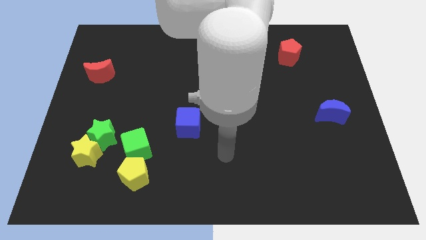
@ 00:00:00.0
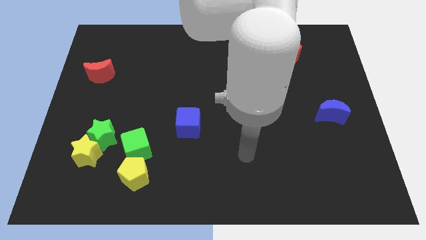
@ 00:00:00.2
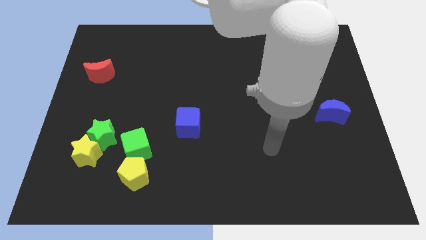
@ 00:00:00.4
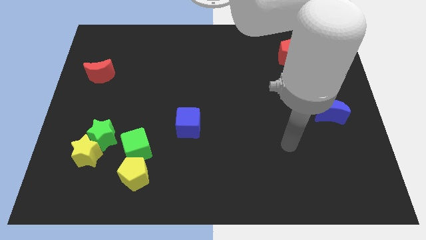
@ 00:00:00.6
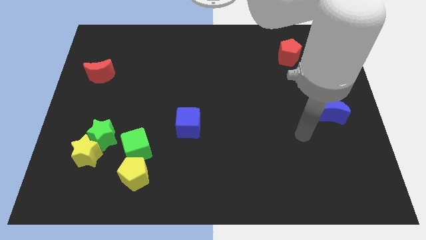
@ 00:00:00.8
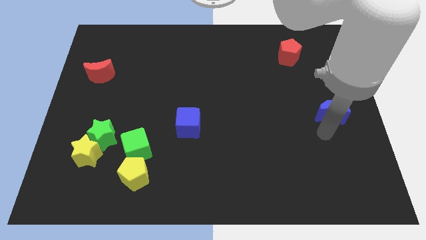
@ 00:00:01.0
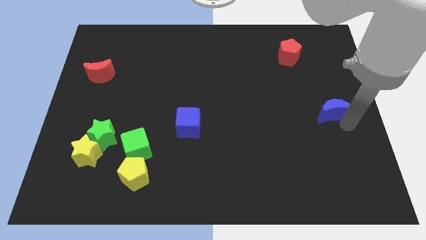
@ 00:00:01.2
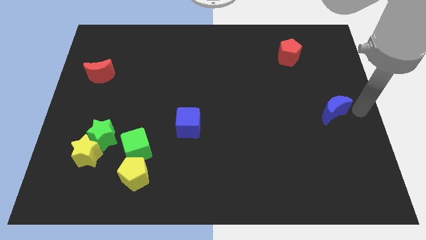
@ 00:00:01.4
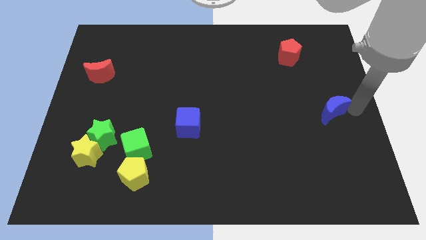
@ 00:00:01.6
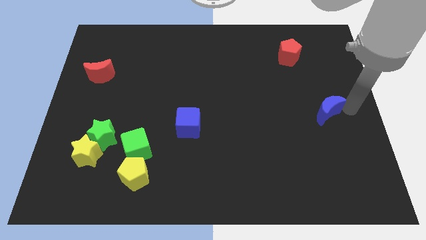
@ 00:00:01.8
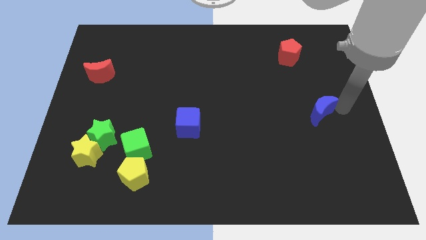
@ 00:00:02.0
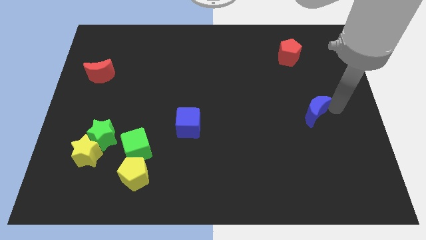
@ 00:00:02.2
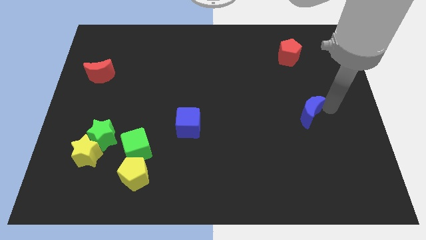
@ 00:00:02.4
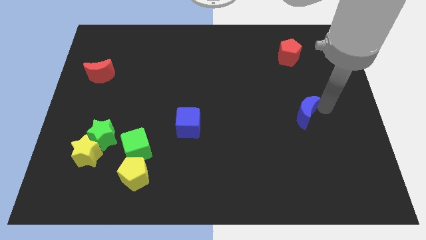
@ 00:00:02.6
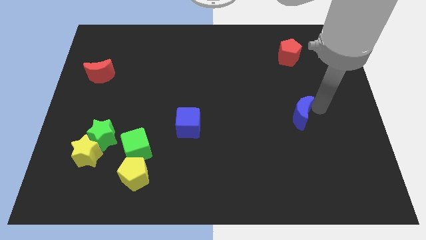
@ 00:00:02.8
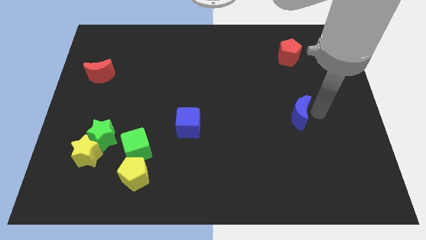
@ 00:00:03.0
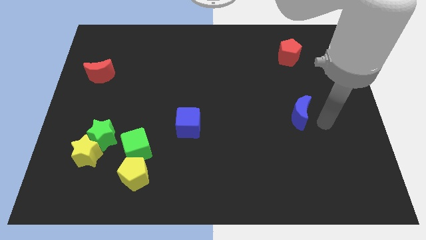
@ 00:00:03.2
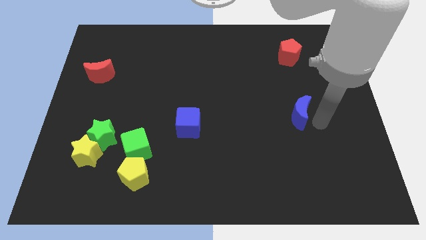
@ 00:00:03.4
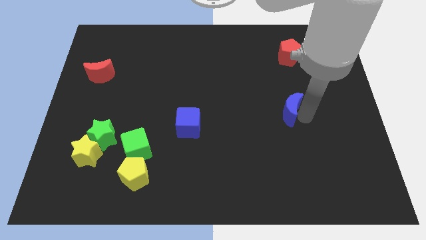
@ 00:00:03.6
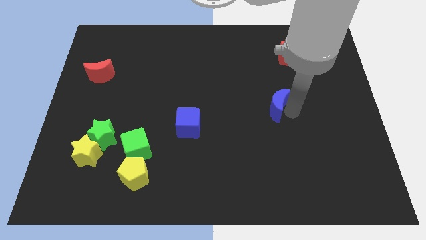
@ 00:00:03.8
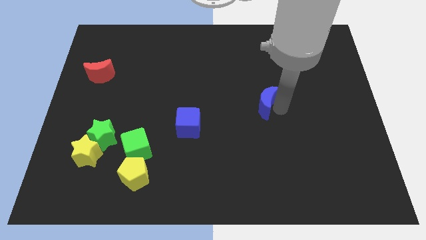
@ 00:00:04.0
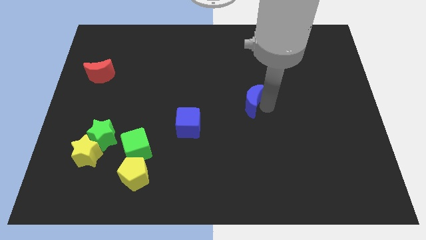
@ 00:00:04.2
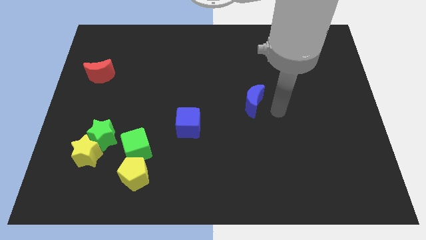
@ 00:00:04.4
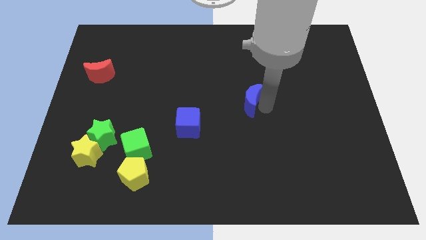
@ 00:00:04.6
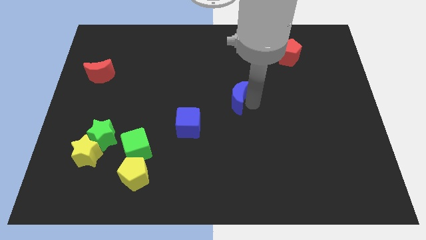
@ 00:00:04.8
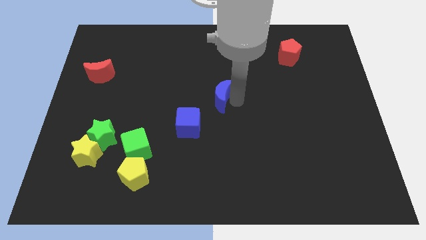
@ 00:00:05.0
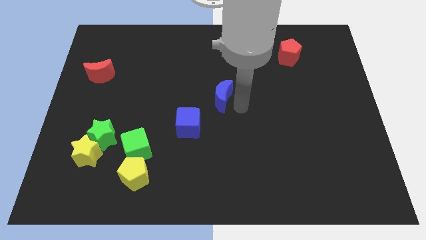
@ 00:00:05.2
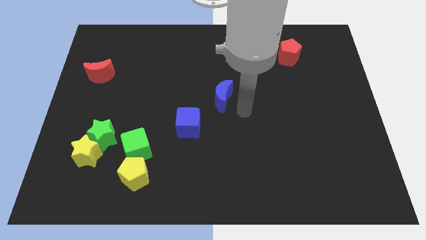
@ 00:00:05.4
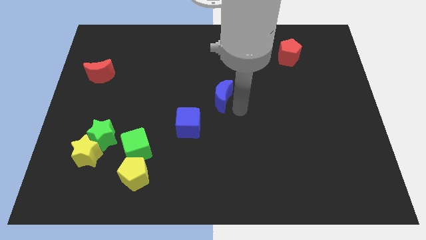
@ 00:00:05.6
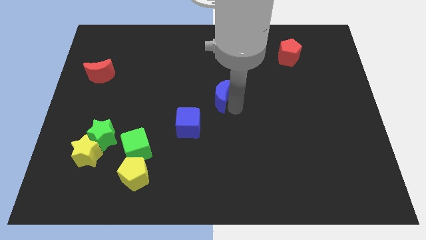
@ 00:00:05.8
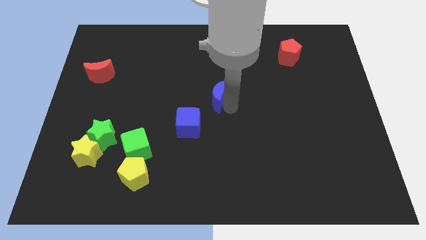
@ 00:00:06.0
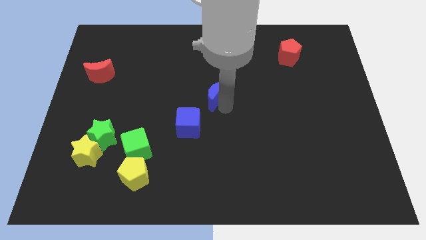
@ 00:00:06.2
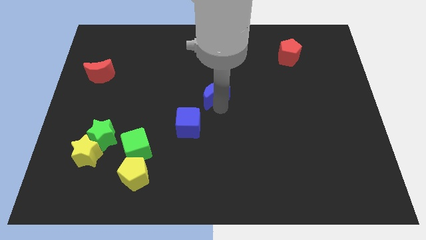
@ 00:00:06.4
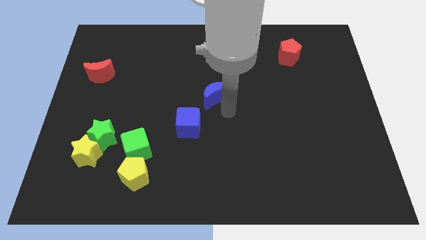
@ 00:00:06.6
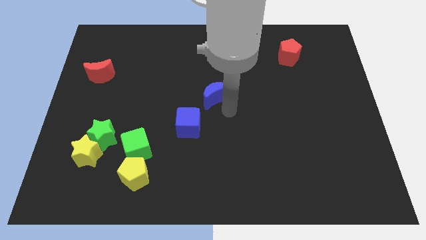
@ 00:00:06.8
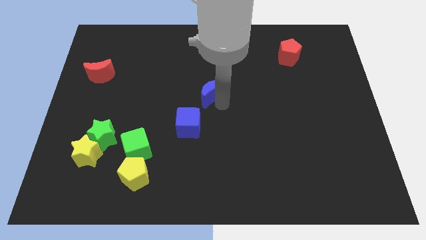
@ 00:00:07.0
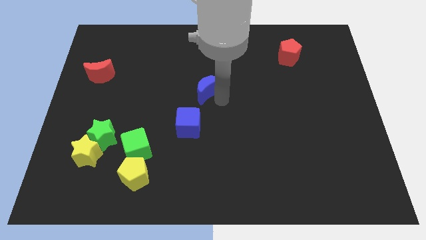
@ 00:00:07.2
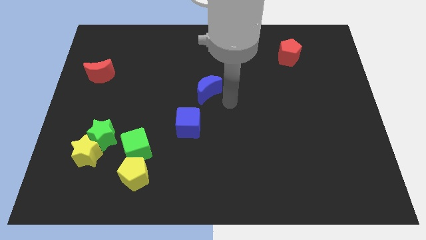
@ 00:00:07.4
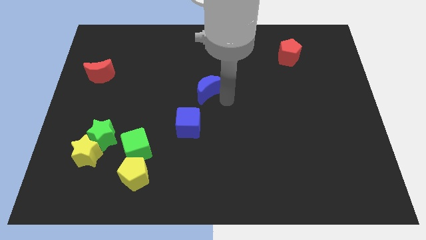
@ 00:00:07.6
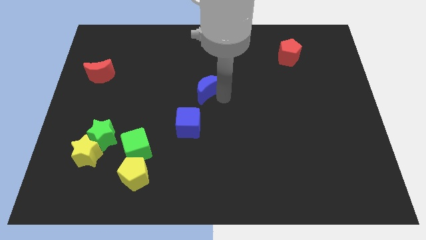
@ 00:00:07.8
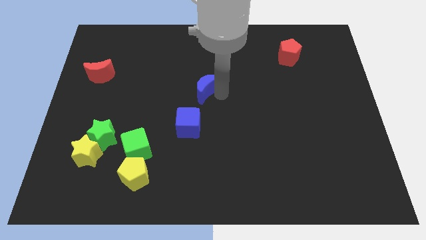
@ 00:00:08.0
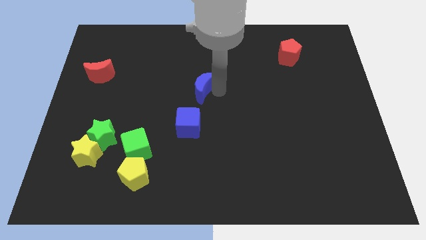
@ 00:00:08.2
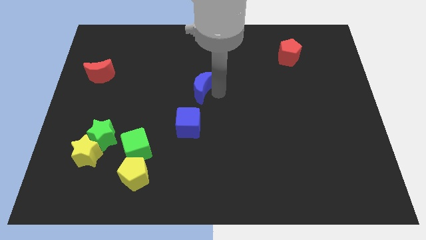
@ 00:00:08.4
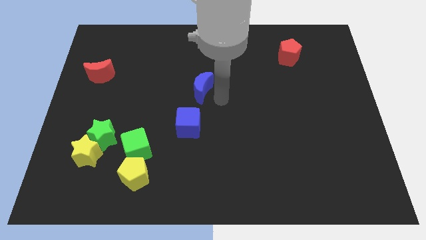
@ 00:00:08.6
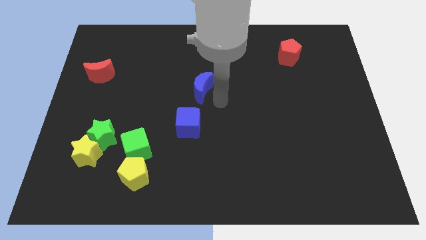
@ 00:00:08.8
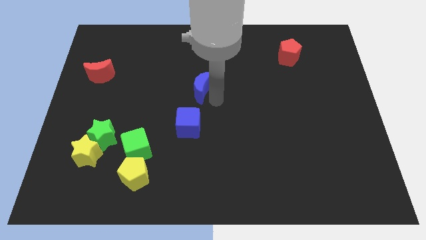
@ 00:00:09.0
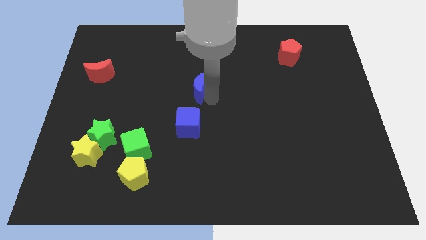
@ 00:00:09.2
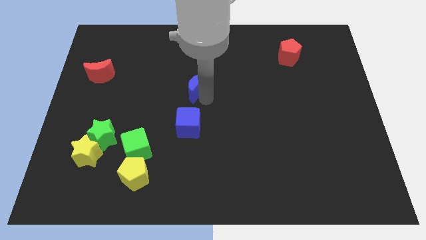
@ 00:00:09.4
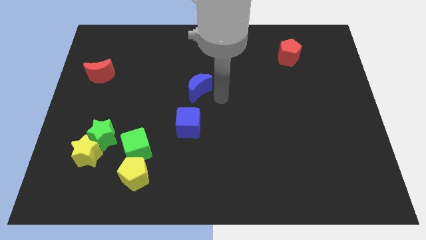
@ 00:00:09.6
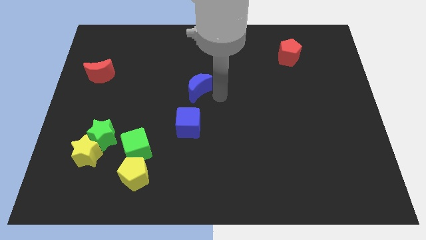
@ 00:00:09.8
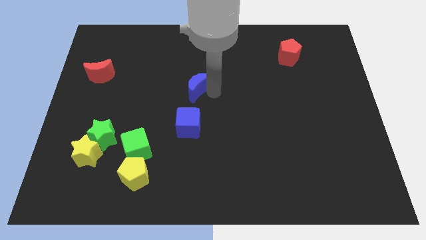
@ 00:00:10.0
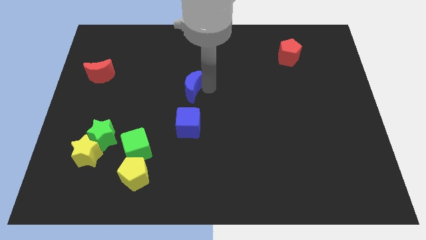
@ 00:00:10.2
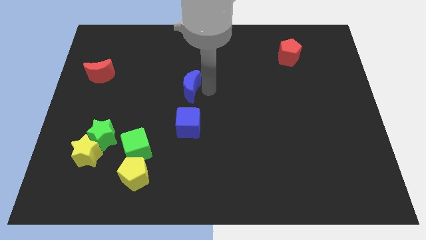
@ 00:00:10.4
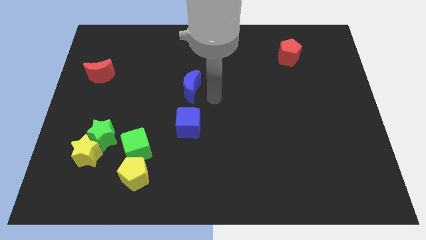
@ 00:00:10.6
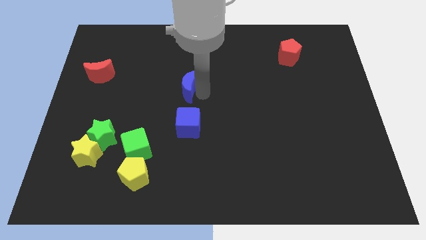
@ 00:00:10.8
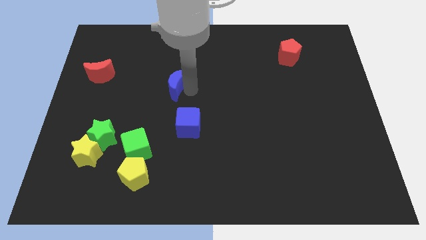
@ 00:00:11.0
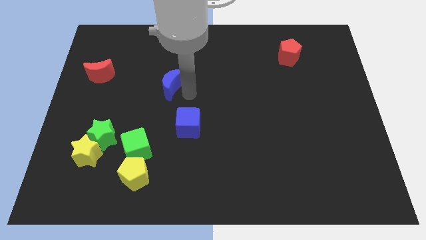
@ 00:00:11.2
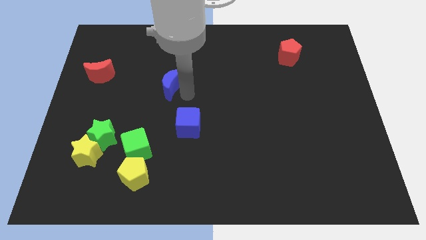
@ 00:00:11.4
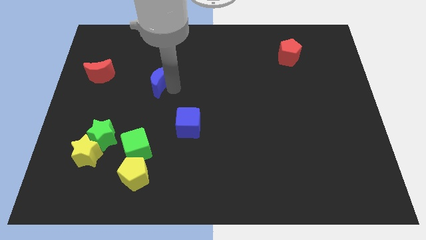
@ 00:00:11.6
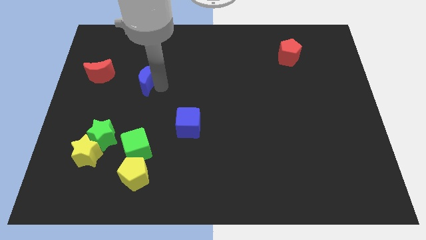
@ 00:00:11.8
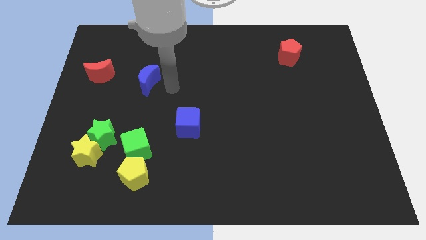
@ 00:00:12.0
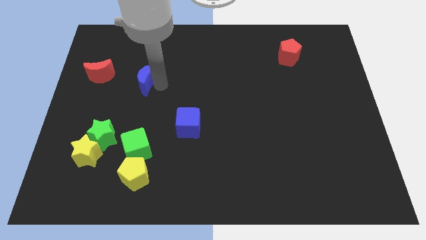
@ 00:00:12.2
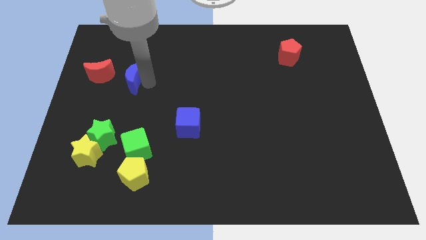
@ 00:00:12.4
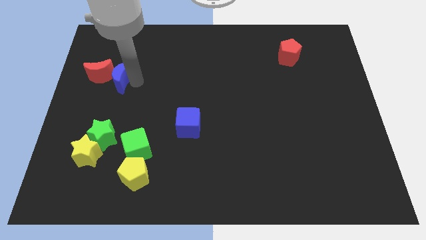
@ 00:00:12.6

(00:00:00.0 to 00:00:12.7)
move the blue moon to the red moon

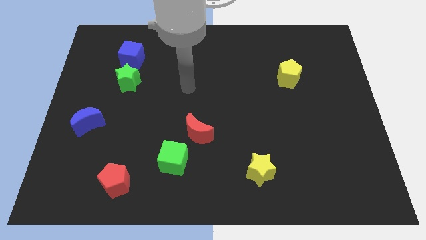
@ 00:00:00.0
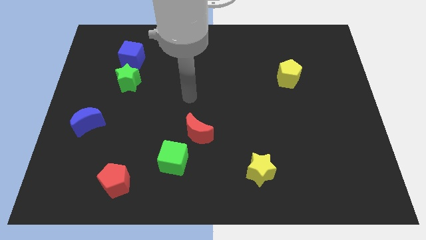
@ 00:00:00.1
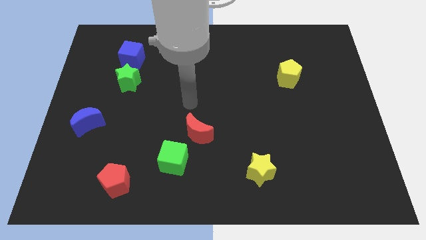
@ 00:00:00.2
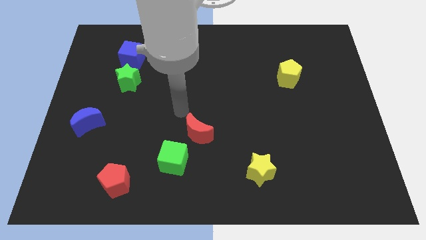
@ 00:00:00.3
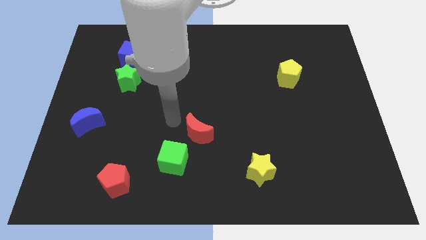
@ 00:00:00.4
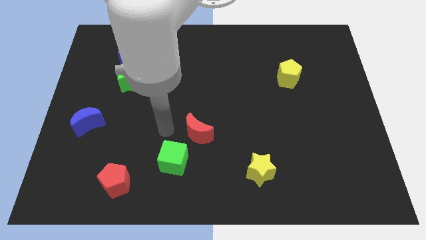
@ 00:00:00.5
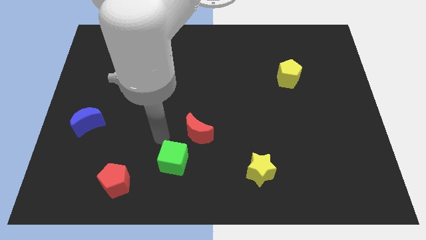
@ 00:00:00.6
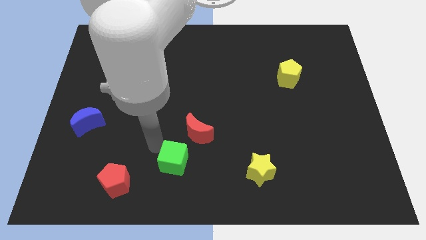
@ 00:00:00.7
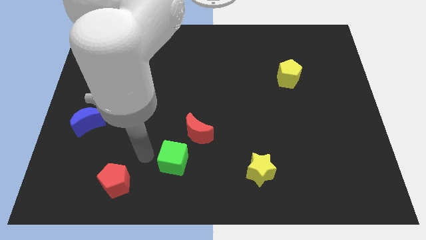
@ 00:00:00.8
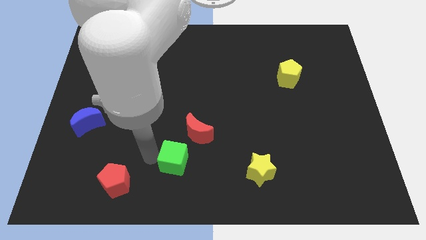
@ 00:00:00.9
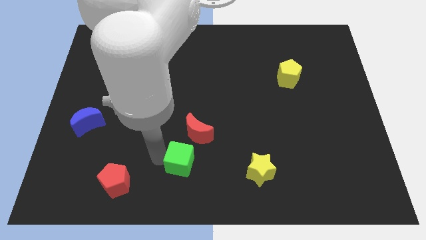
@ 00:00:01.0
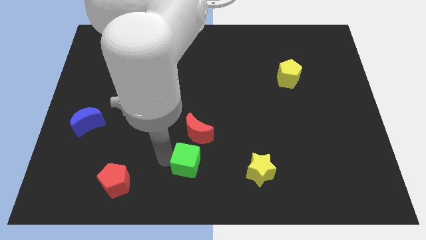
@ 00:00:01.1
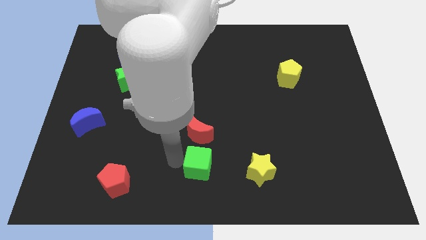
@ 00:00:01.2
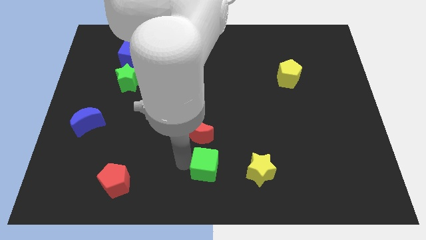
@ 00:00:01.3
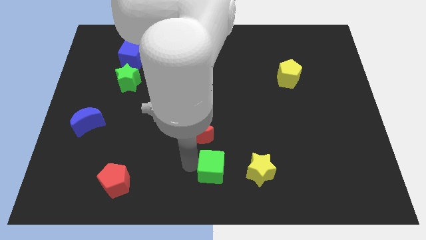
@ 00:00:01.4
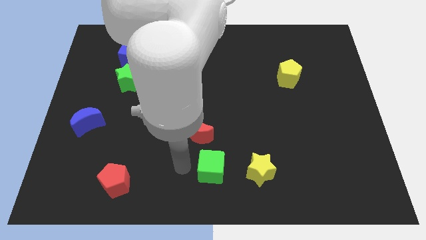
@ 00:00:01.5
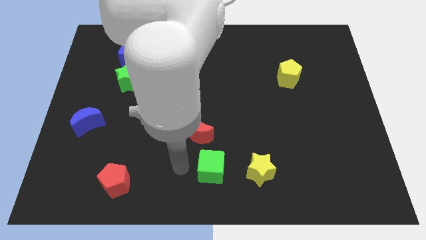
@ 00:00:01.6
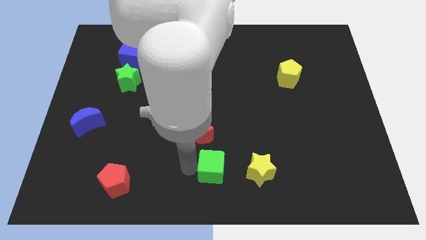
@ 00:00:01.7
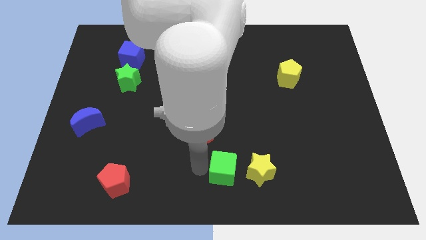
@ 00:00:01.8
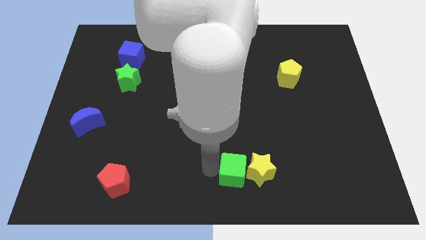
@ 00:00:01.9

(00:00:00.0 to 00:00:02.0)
slide the green cube next to the yellow star
